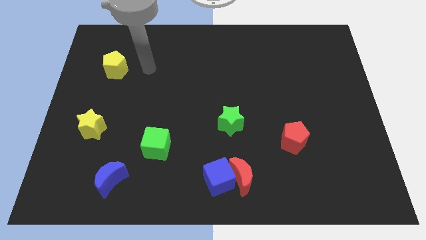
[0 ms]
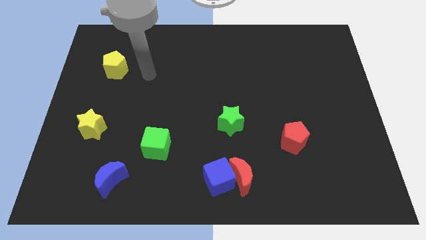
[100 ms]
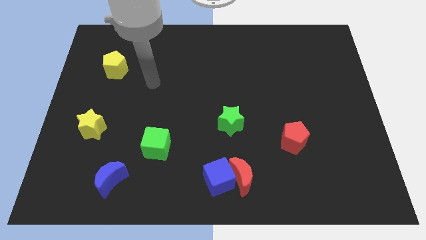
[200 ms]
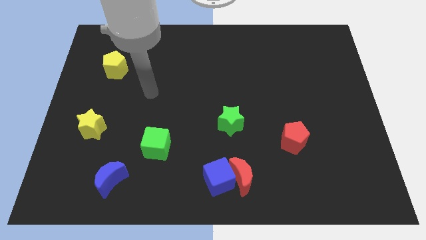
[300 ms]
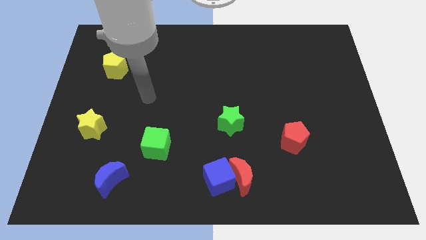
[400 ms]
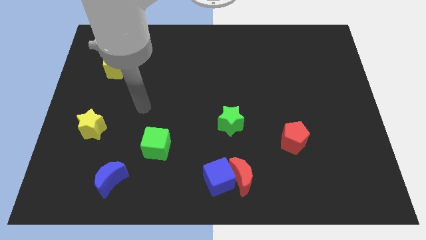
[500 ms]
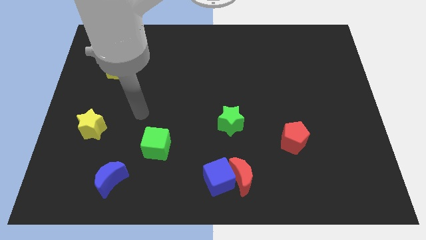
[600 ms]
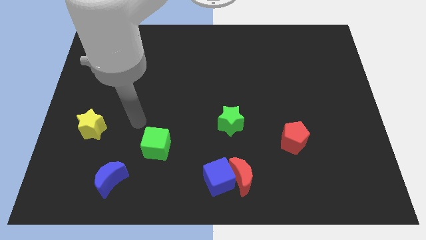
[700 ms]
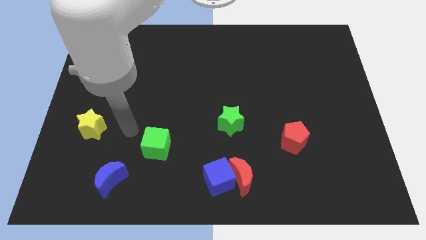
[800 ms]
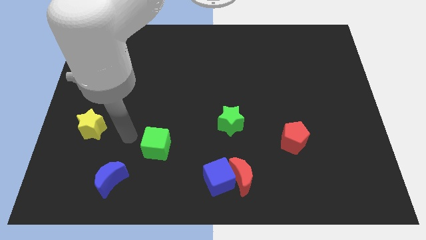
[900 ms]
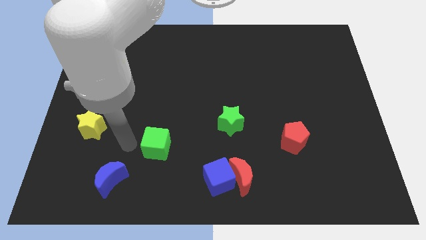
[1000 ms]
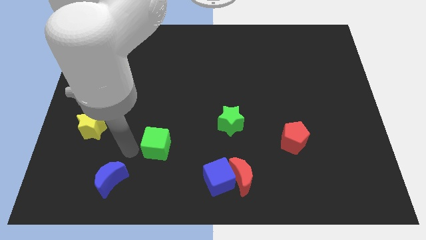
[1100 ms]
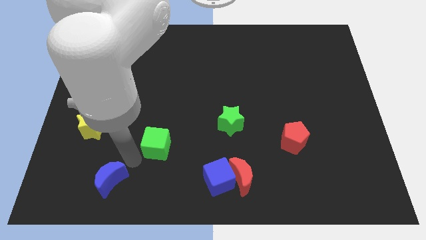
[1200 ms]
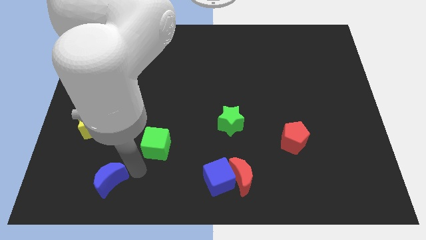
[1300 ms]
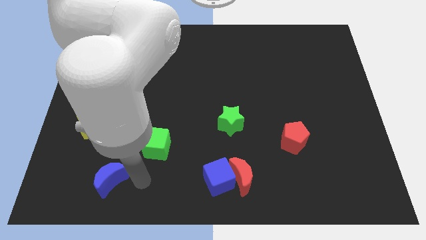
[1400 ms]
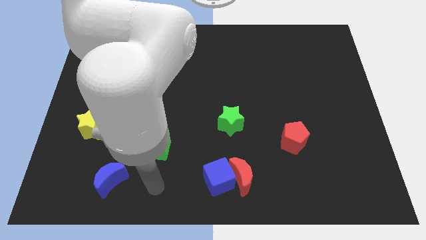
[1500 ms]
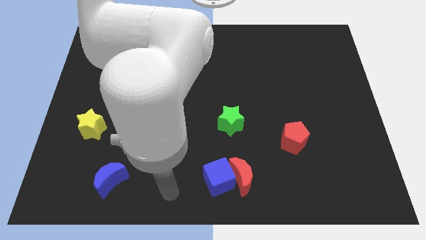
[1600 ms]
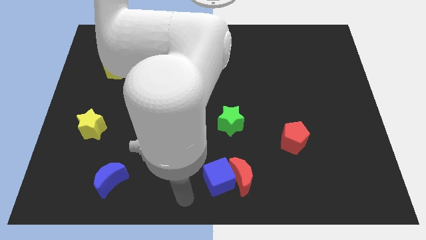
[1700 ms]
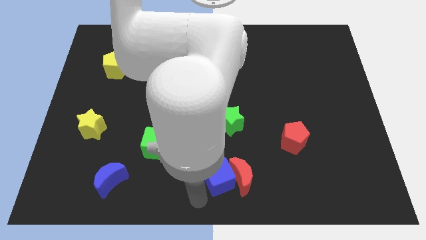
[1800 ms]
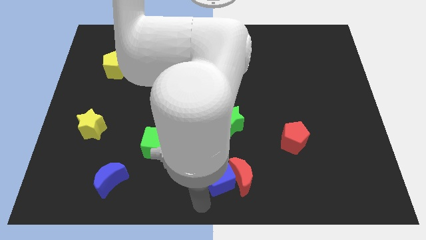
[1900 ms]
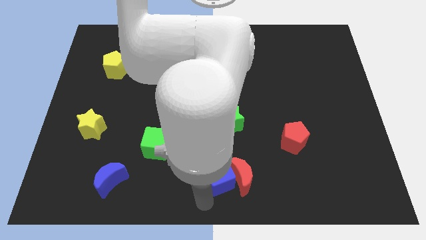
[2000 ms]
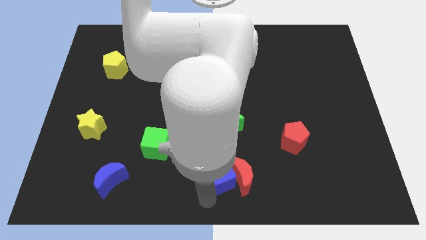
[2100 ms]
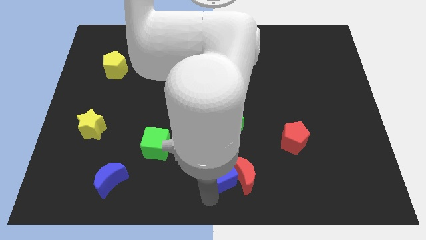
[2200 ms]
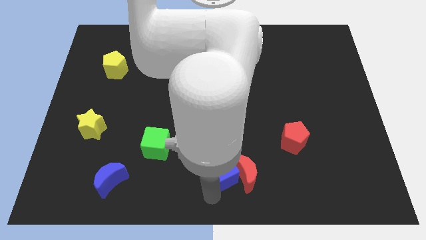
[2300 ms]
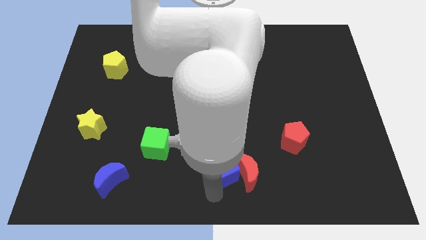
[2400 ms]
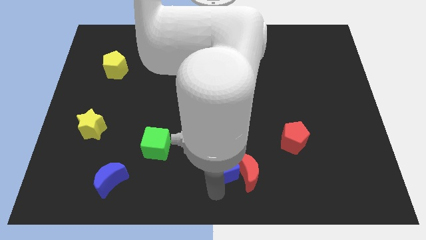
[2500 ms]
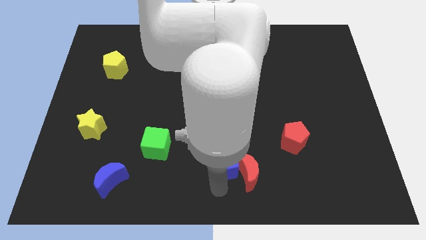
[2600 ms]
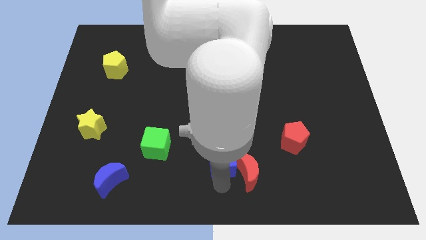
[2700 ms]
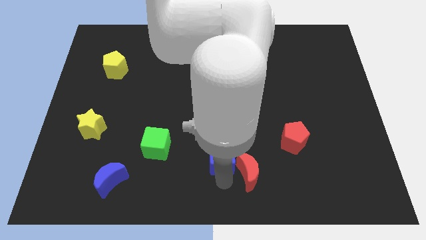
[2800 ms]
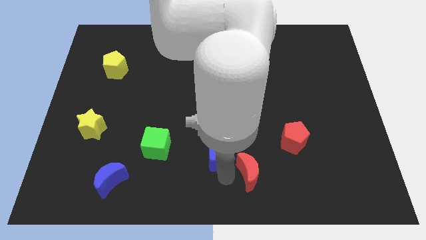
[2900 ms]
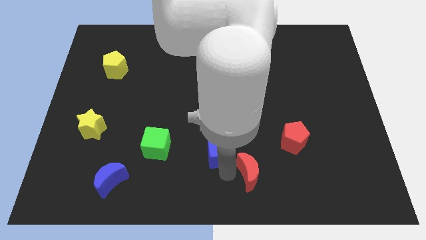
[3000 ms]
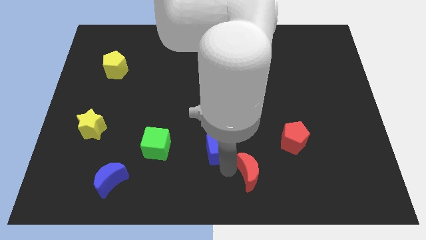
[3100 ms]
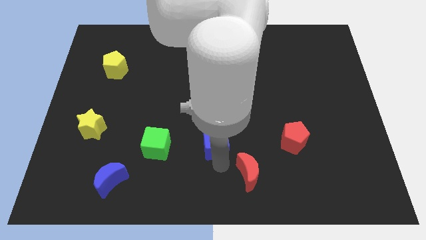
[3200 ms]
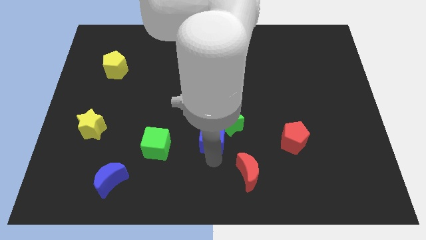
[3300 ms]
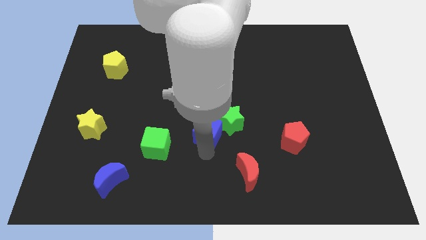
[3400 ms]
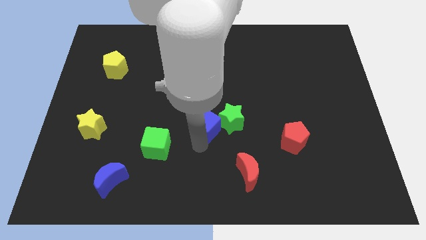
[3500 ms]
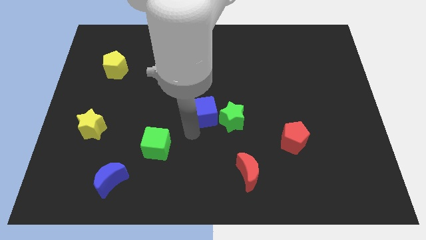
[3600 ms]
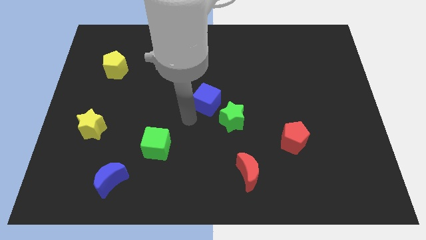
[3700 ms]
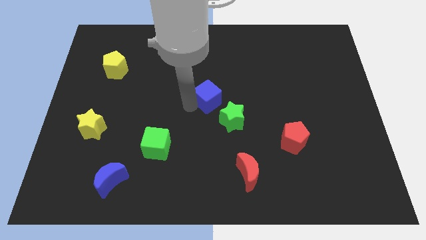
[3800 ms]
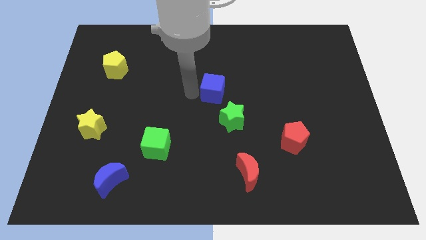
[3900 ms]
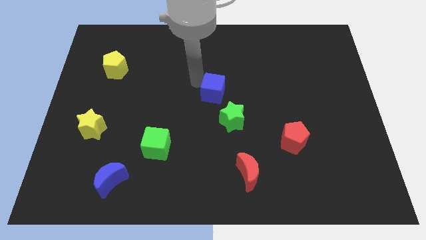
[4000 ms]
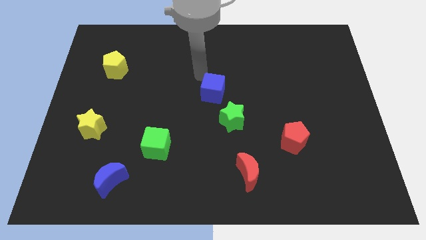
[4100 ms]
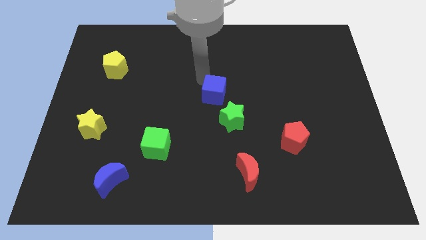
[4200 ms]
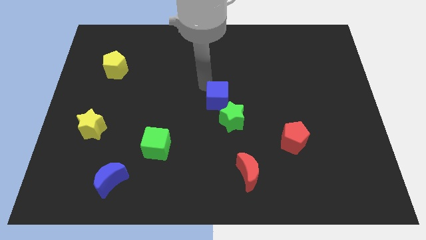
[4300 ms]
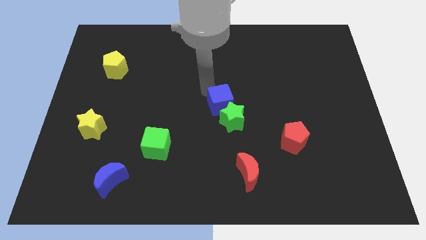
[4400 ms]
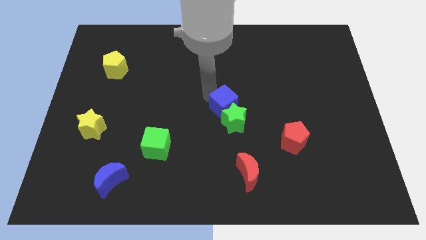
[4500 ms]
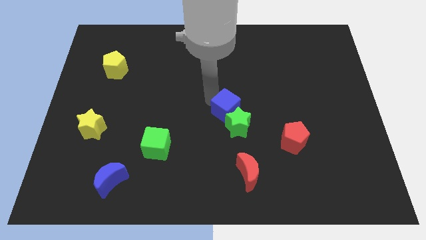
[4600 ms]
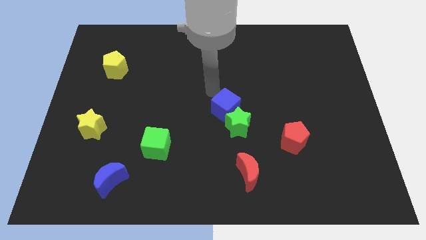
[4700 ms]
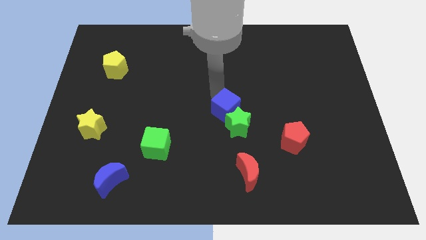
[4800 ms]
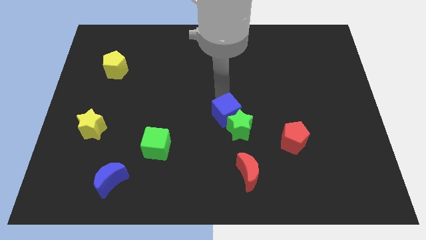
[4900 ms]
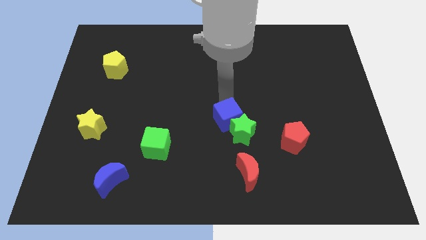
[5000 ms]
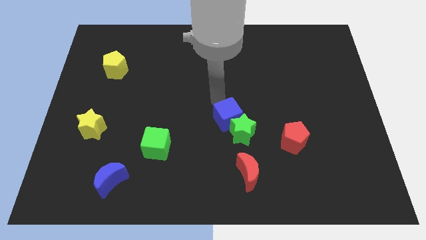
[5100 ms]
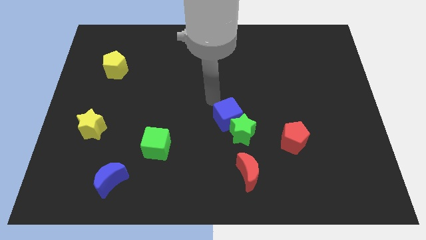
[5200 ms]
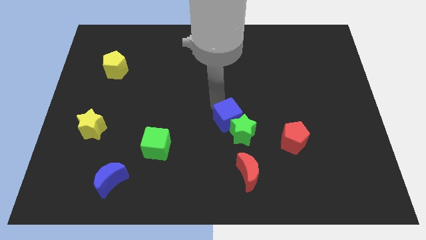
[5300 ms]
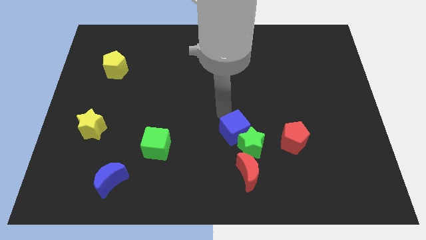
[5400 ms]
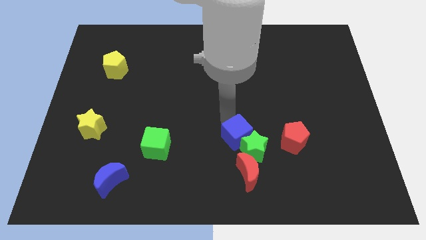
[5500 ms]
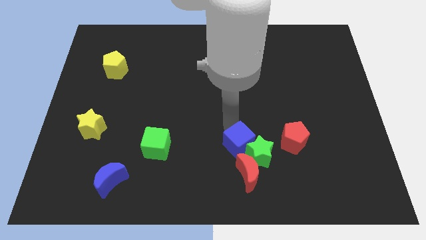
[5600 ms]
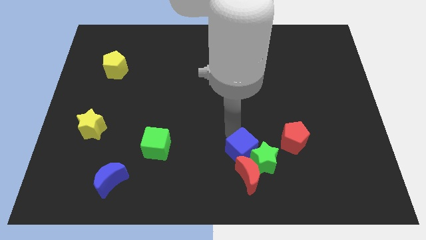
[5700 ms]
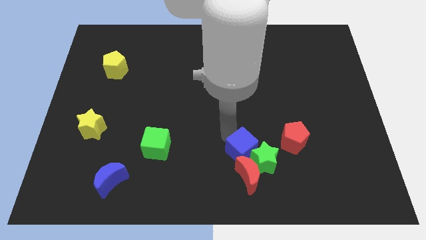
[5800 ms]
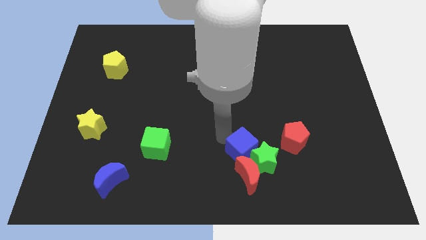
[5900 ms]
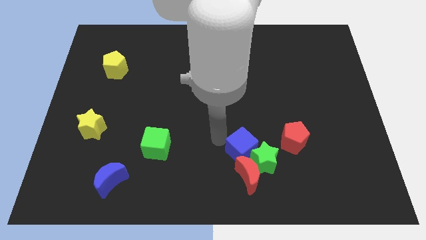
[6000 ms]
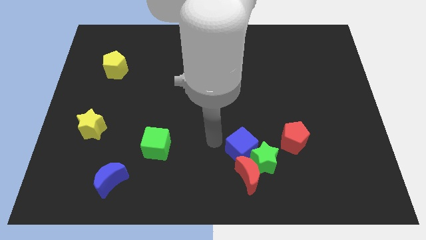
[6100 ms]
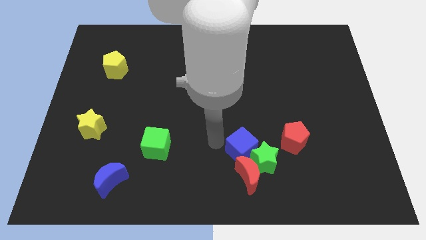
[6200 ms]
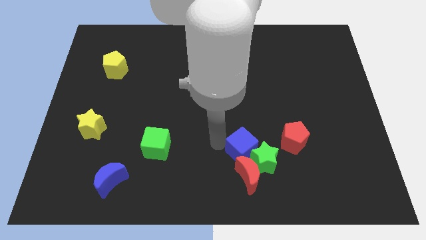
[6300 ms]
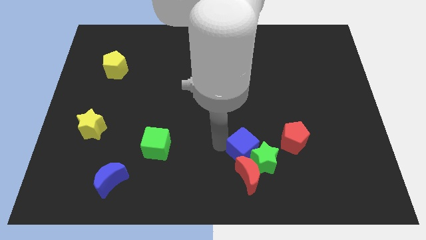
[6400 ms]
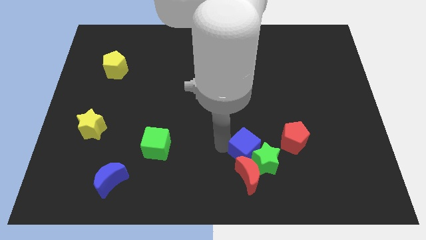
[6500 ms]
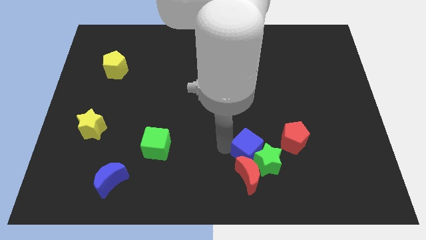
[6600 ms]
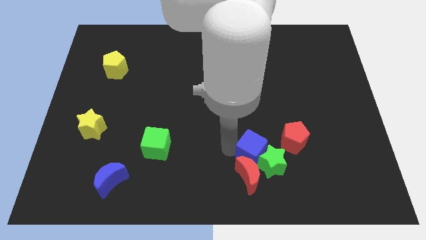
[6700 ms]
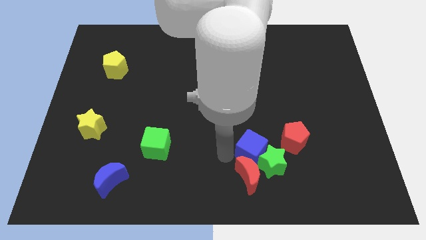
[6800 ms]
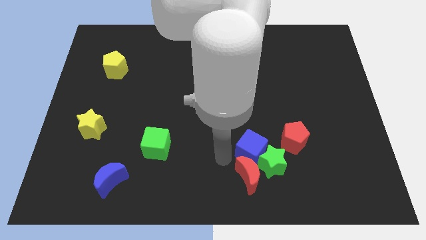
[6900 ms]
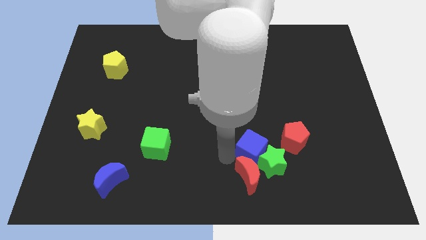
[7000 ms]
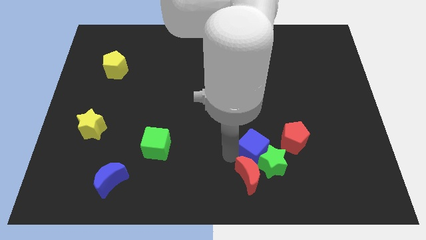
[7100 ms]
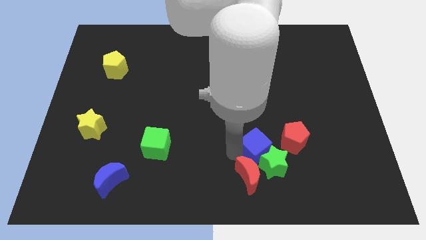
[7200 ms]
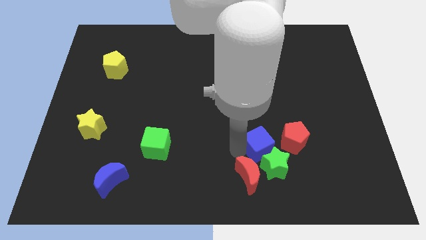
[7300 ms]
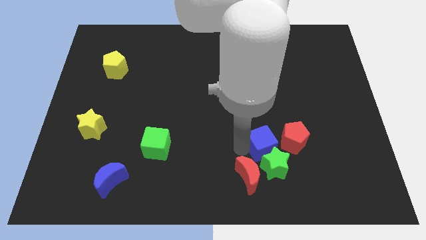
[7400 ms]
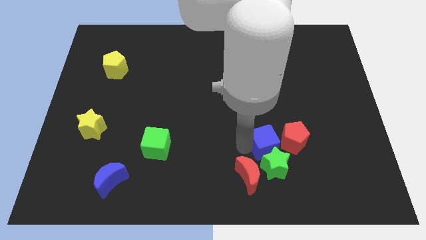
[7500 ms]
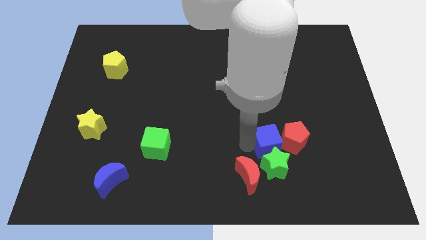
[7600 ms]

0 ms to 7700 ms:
move the blue cube close to the red pentagon
